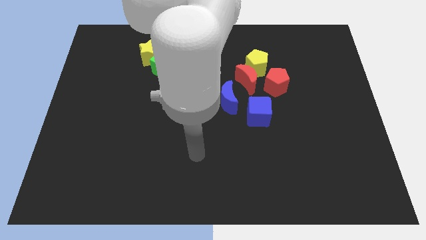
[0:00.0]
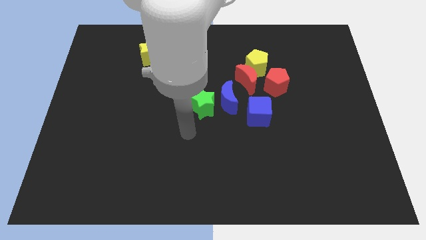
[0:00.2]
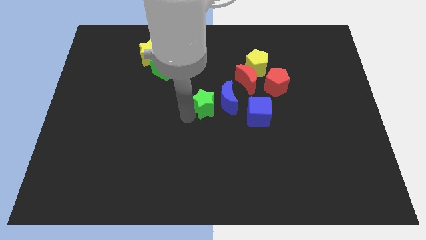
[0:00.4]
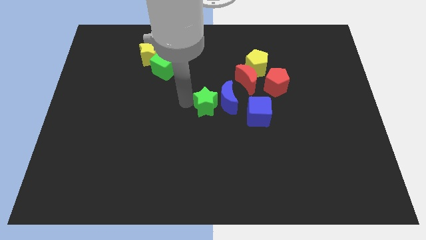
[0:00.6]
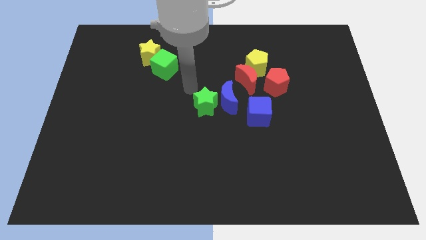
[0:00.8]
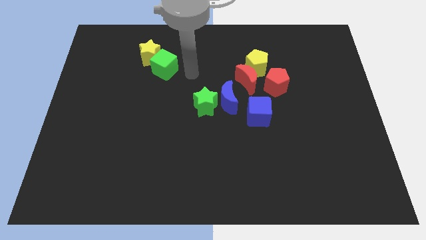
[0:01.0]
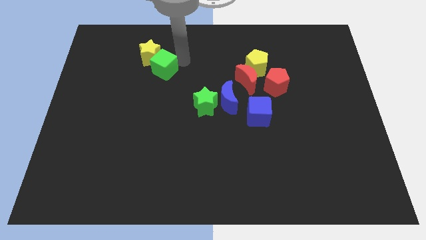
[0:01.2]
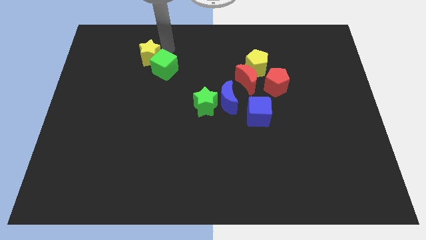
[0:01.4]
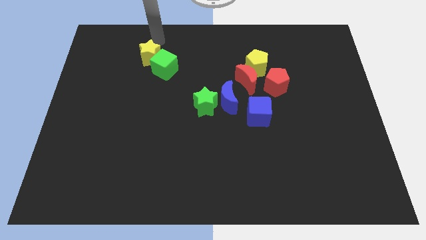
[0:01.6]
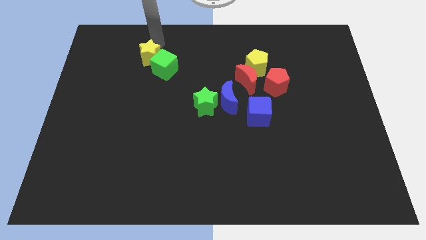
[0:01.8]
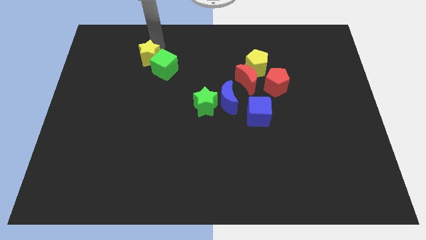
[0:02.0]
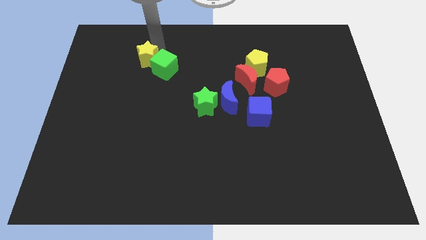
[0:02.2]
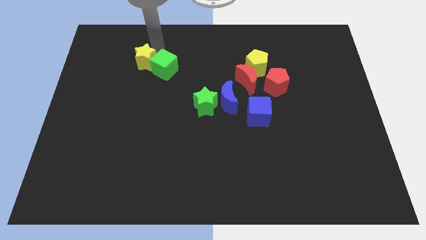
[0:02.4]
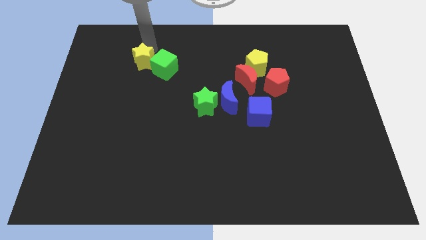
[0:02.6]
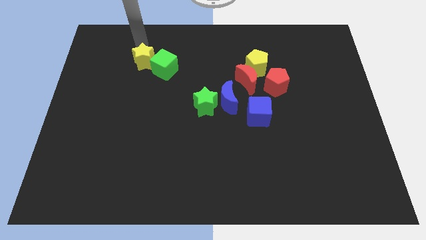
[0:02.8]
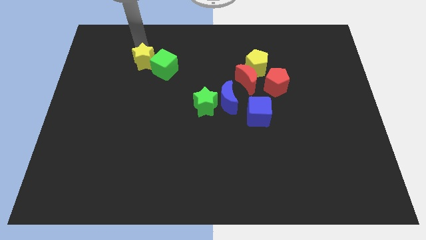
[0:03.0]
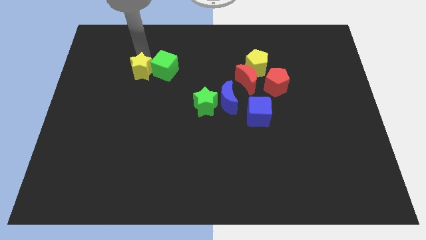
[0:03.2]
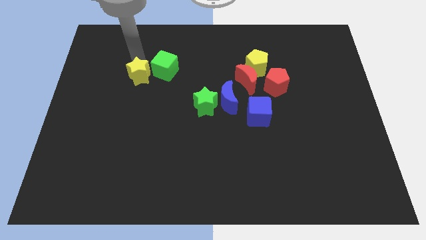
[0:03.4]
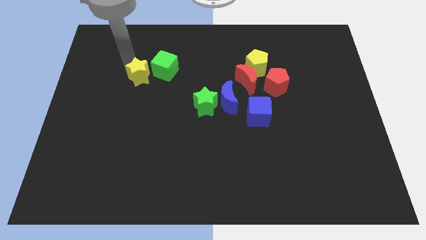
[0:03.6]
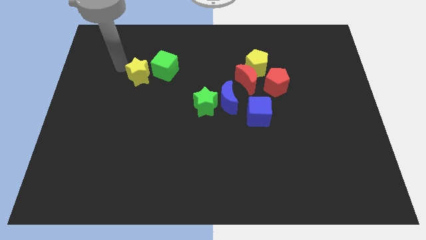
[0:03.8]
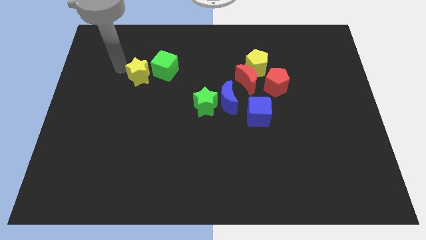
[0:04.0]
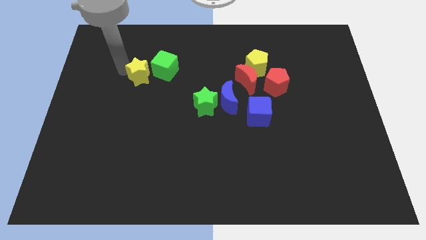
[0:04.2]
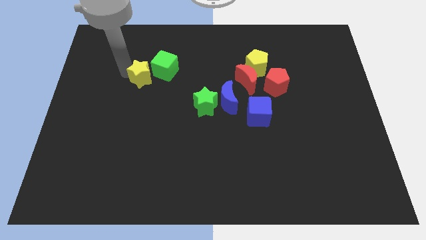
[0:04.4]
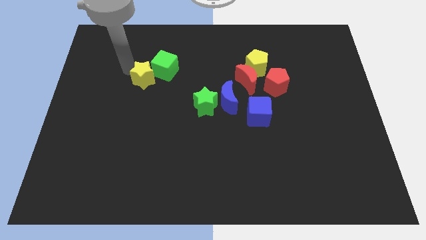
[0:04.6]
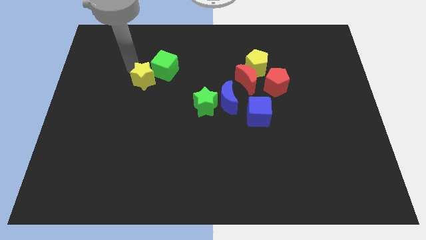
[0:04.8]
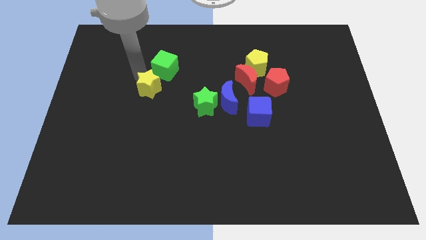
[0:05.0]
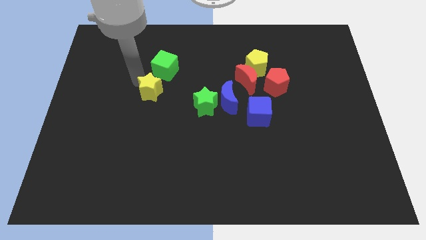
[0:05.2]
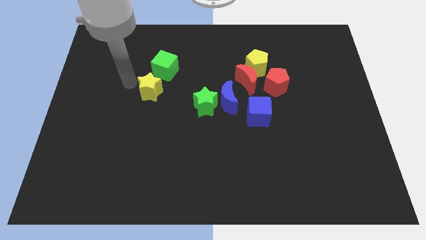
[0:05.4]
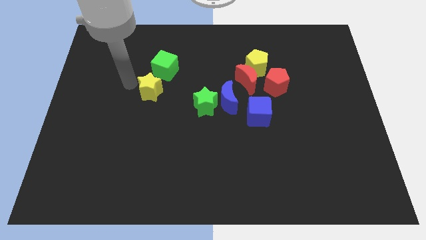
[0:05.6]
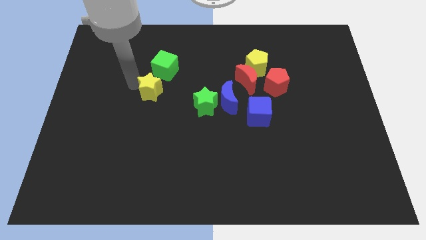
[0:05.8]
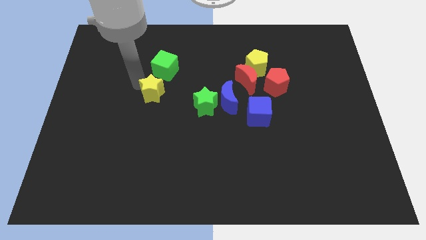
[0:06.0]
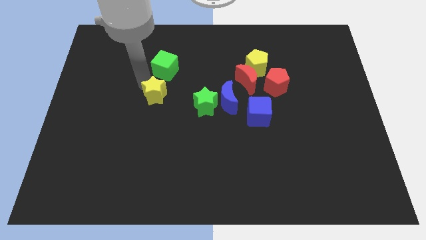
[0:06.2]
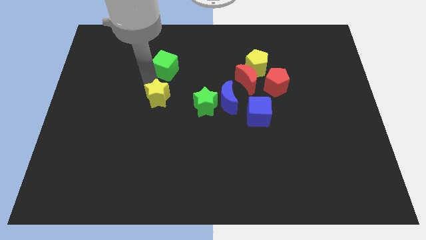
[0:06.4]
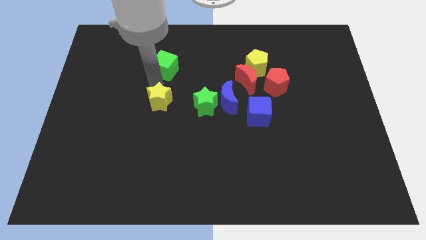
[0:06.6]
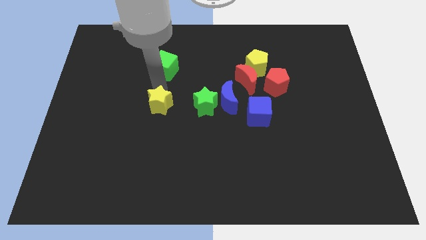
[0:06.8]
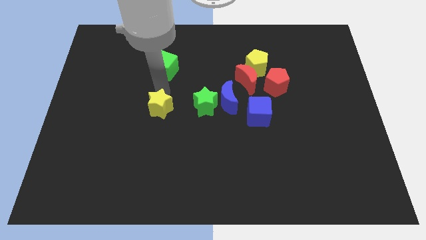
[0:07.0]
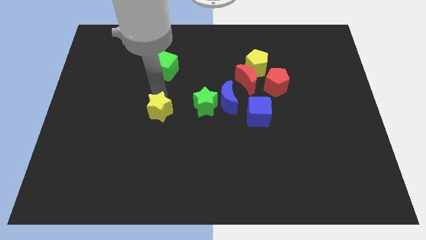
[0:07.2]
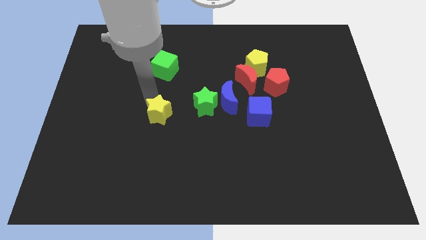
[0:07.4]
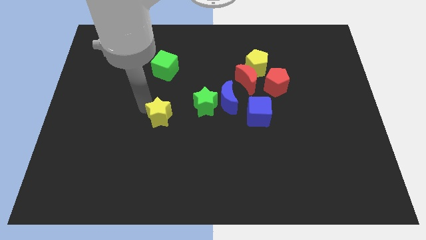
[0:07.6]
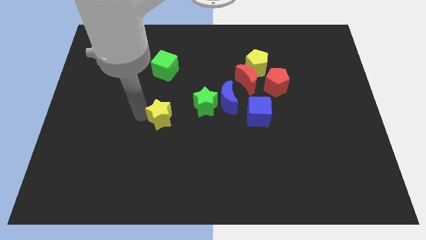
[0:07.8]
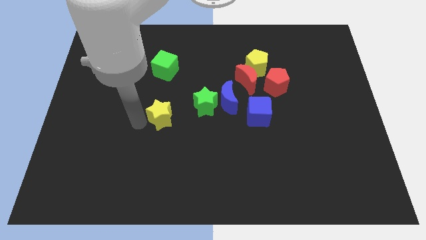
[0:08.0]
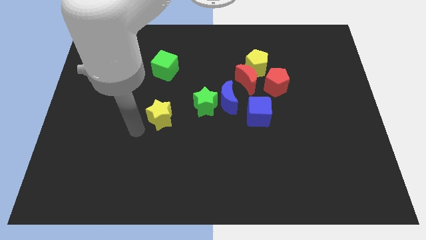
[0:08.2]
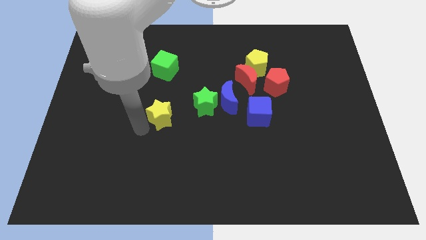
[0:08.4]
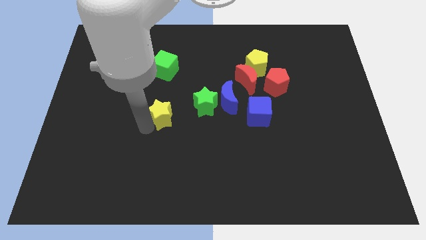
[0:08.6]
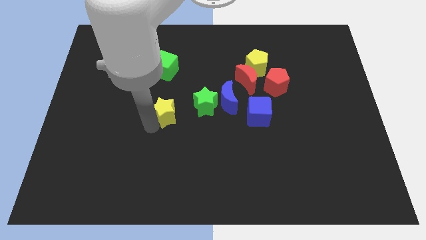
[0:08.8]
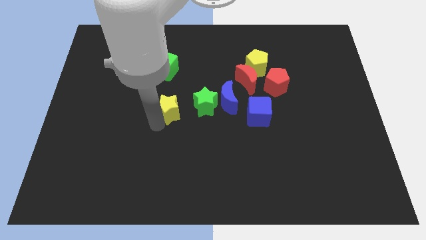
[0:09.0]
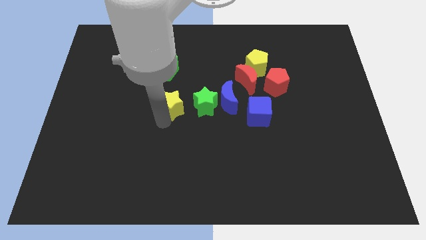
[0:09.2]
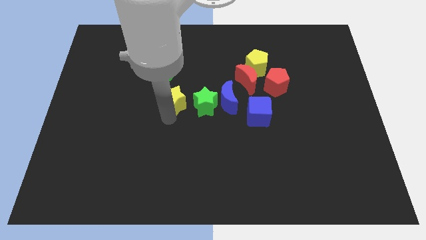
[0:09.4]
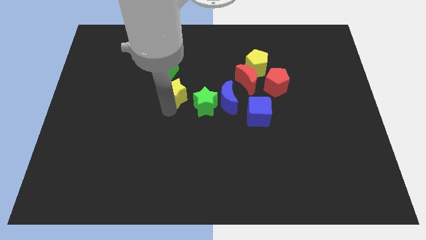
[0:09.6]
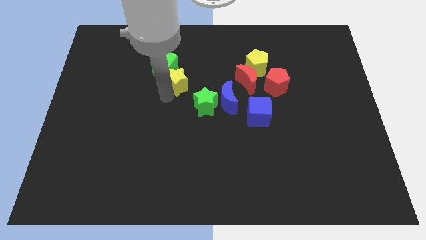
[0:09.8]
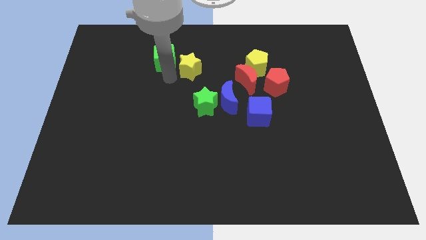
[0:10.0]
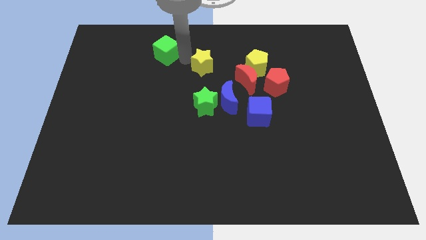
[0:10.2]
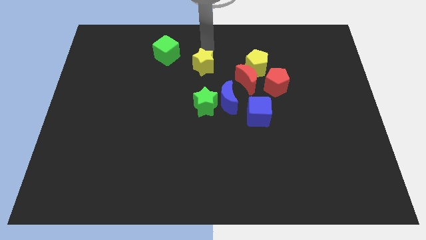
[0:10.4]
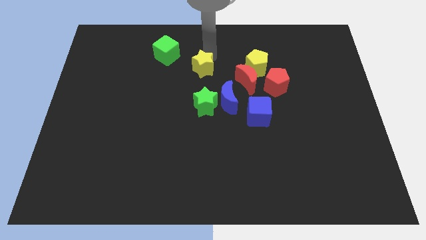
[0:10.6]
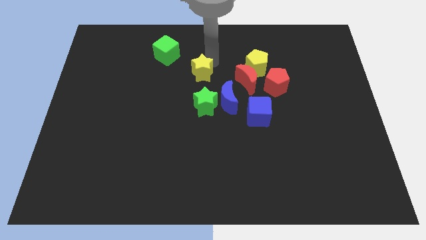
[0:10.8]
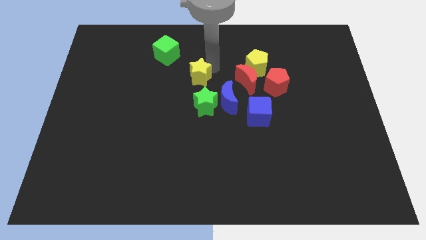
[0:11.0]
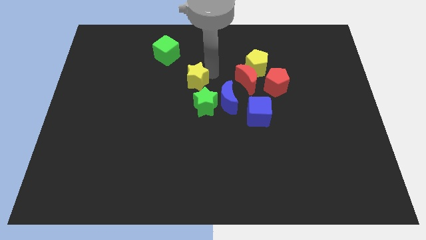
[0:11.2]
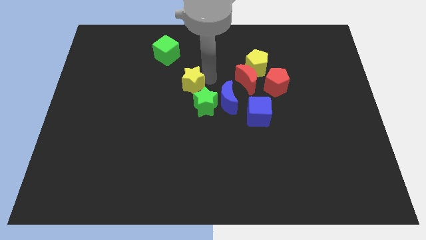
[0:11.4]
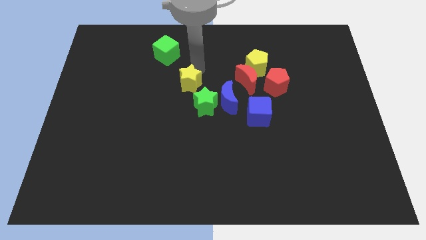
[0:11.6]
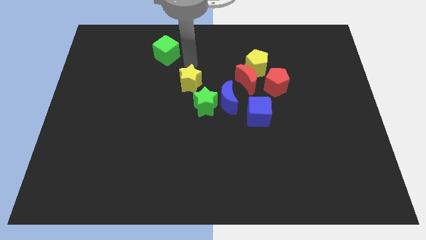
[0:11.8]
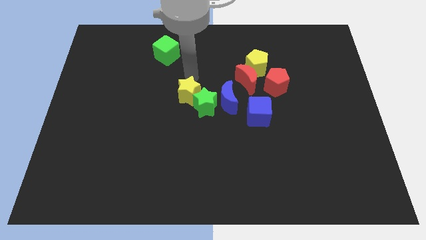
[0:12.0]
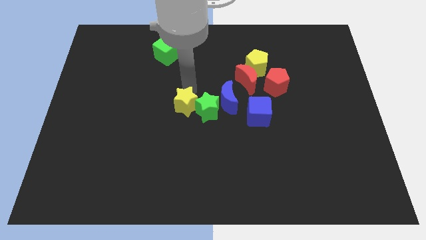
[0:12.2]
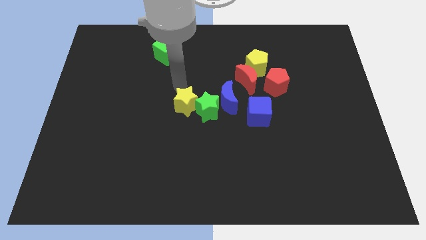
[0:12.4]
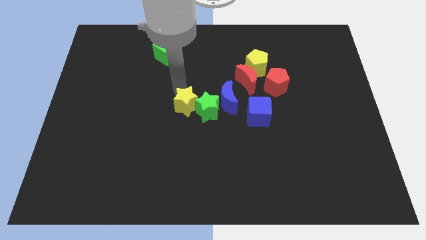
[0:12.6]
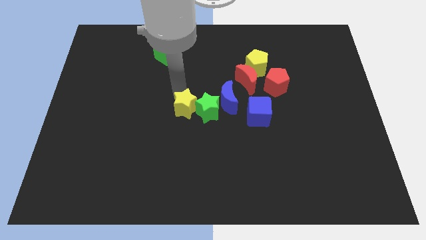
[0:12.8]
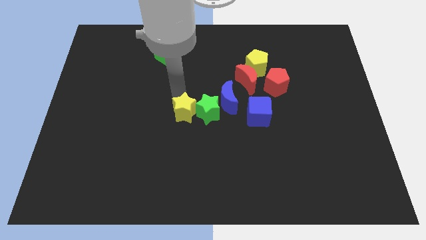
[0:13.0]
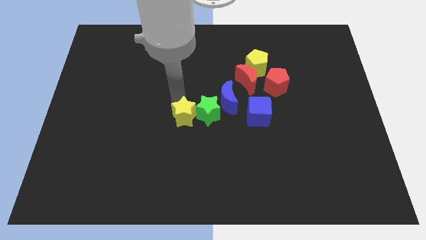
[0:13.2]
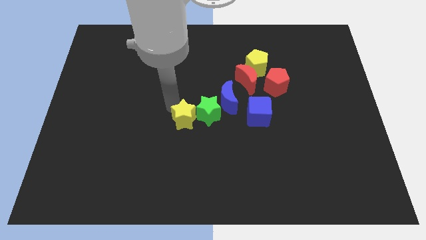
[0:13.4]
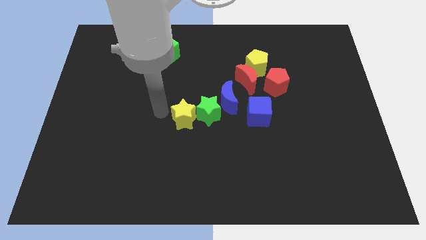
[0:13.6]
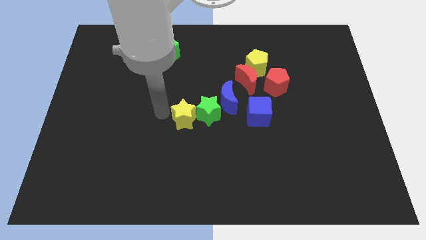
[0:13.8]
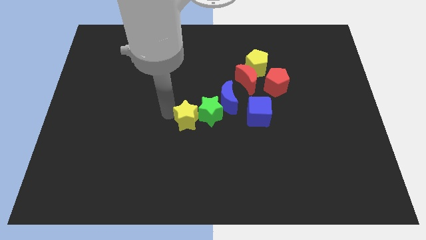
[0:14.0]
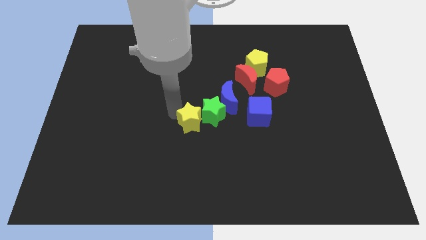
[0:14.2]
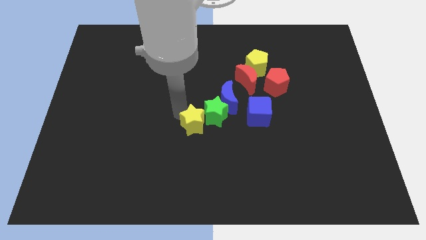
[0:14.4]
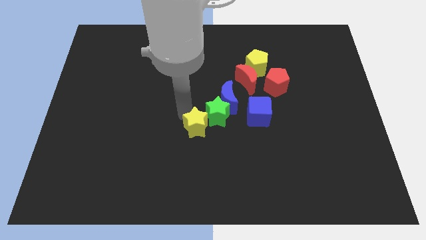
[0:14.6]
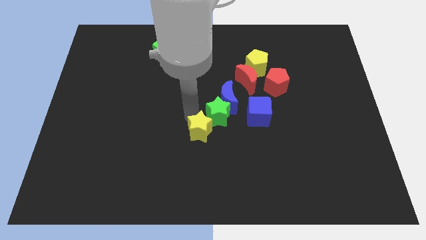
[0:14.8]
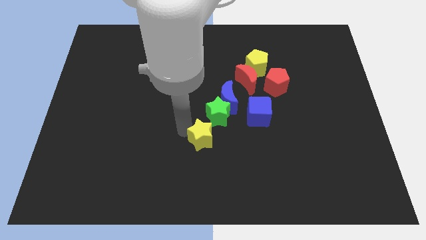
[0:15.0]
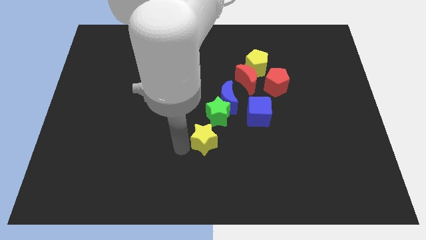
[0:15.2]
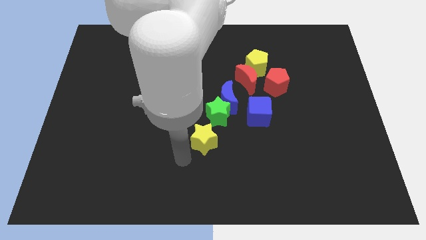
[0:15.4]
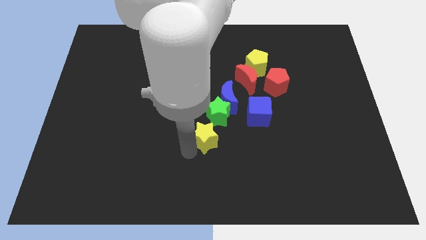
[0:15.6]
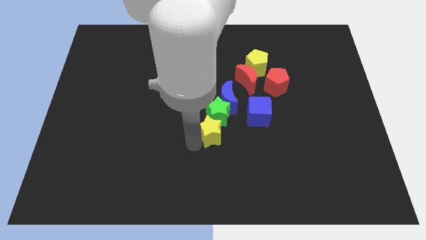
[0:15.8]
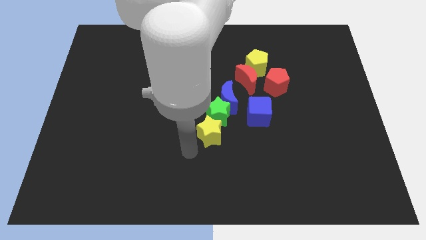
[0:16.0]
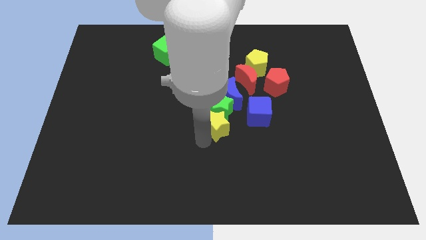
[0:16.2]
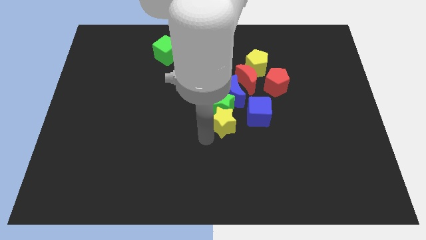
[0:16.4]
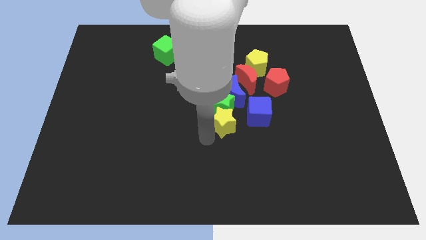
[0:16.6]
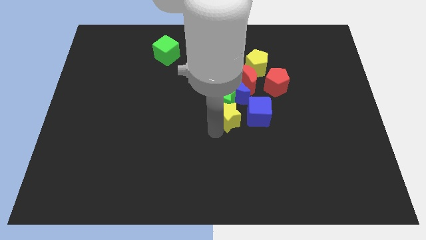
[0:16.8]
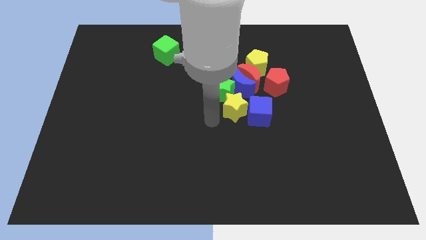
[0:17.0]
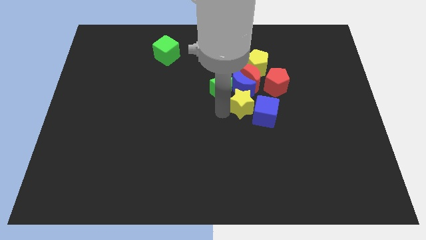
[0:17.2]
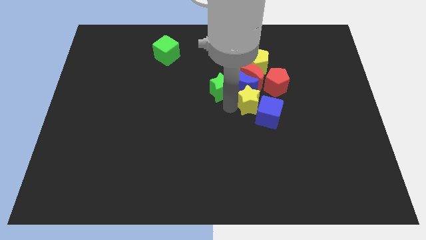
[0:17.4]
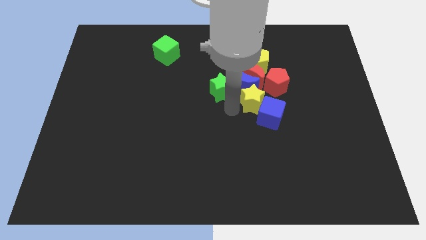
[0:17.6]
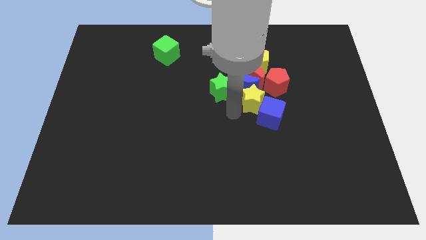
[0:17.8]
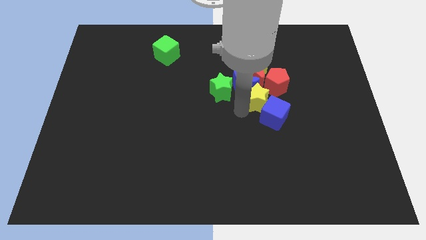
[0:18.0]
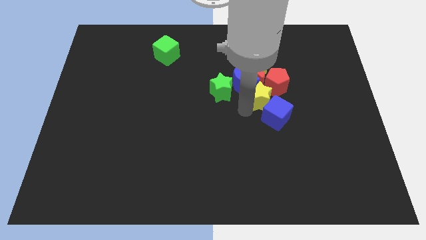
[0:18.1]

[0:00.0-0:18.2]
move the yellow star just right of the blue moon
